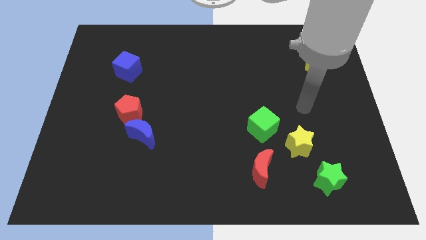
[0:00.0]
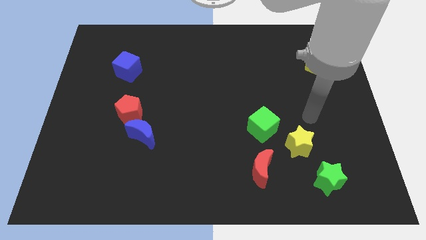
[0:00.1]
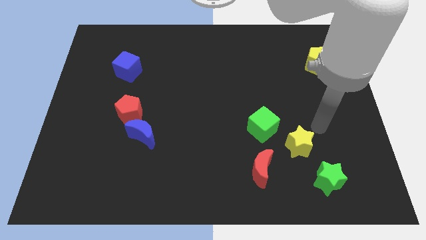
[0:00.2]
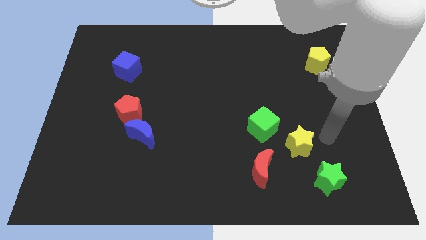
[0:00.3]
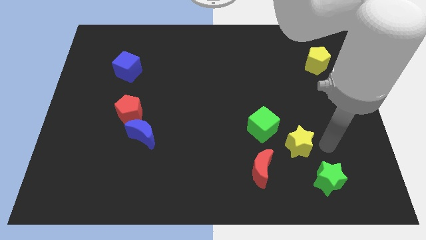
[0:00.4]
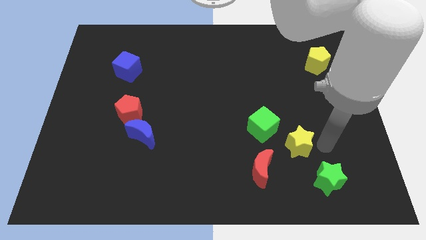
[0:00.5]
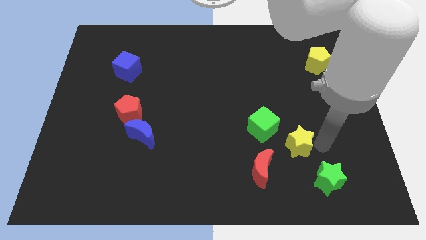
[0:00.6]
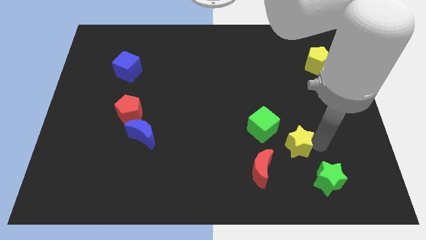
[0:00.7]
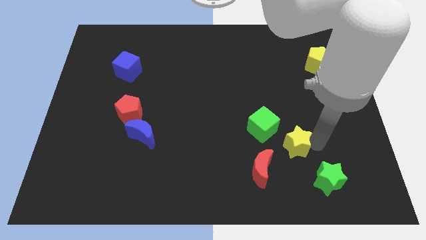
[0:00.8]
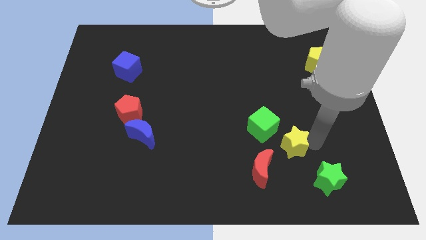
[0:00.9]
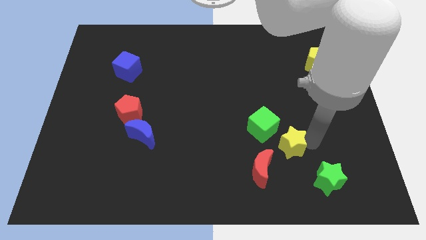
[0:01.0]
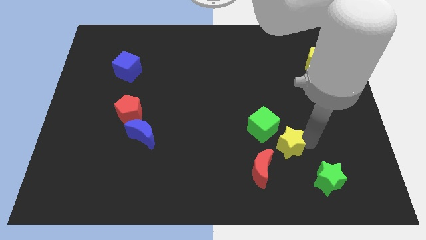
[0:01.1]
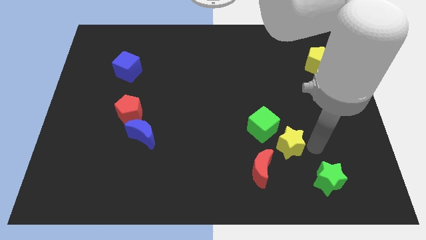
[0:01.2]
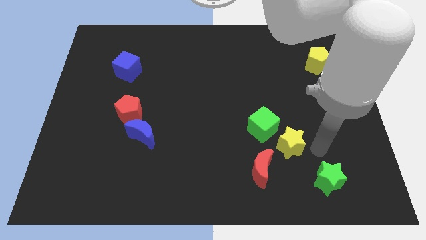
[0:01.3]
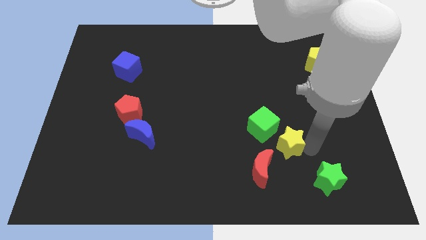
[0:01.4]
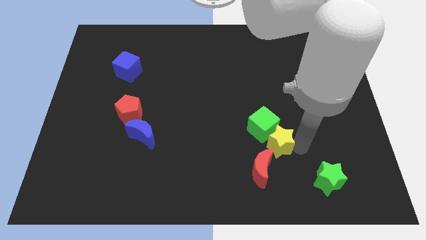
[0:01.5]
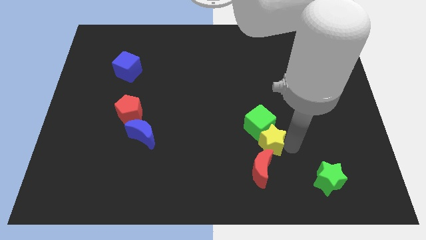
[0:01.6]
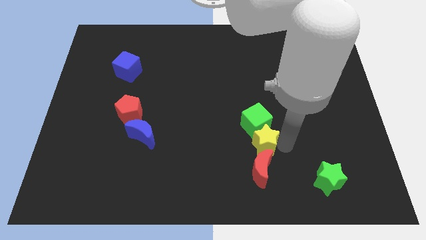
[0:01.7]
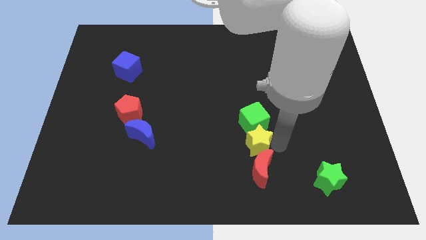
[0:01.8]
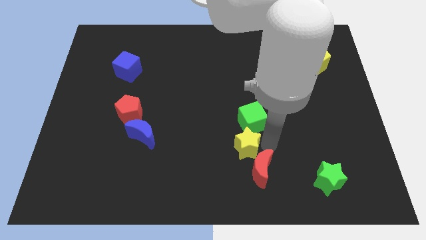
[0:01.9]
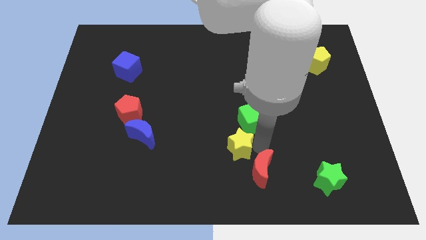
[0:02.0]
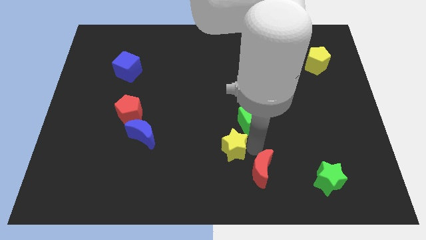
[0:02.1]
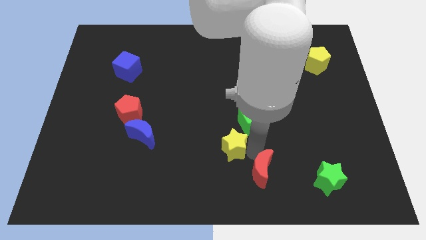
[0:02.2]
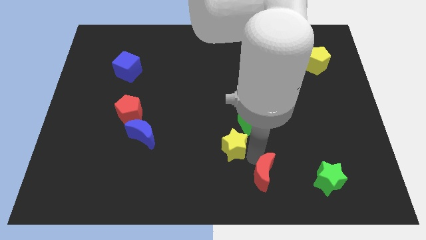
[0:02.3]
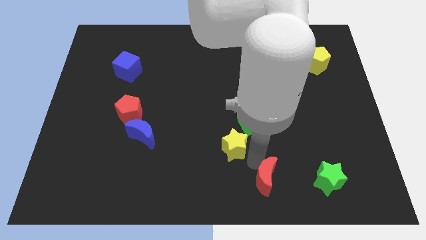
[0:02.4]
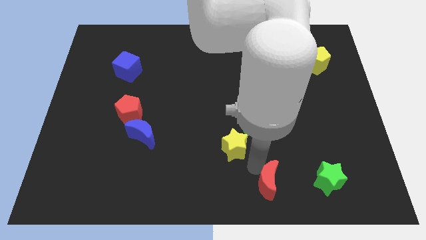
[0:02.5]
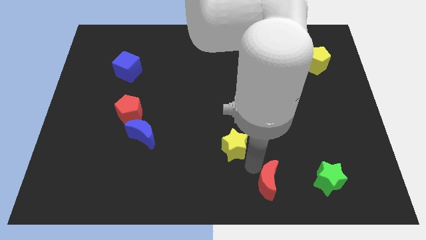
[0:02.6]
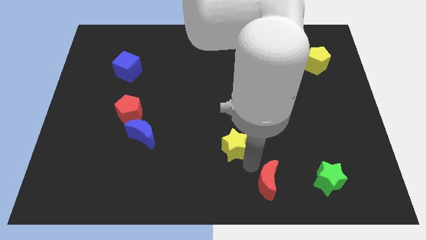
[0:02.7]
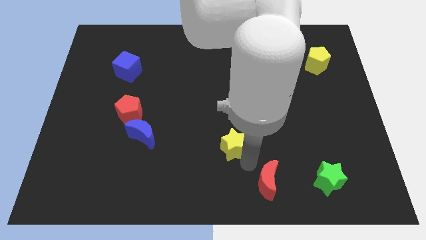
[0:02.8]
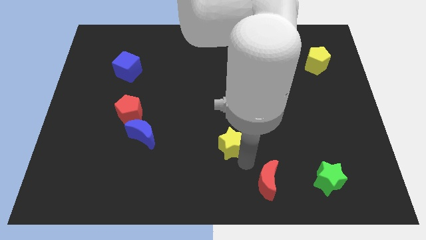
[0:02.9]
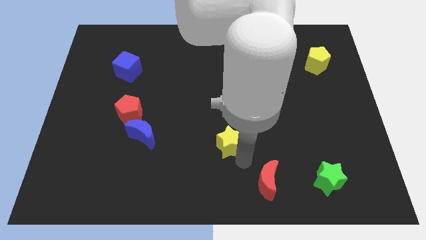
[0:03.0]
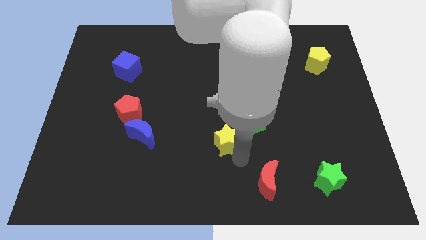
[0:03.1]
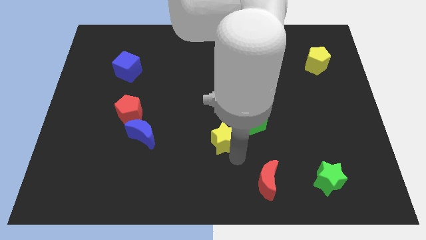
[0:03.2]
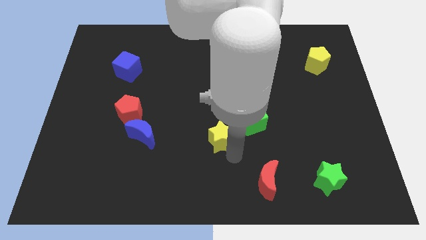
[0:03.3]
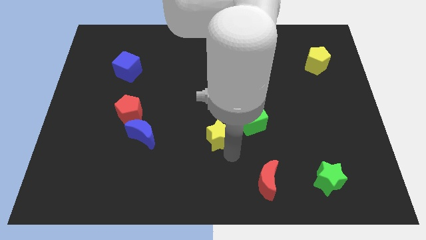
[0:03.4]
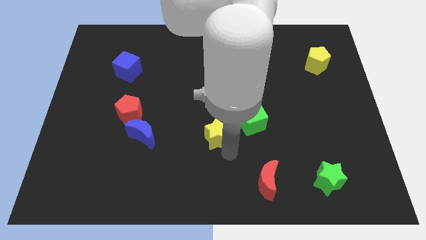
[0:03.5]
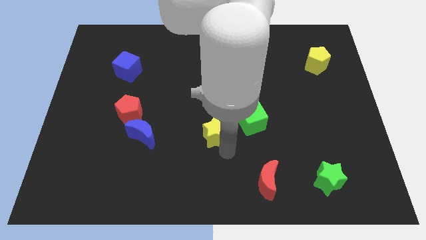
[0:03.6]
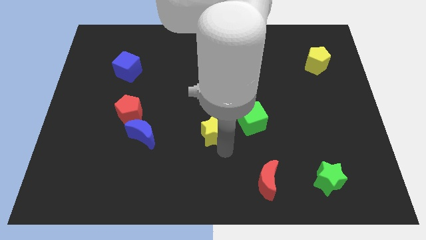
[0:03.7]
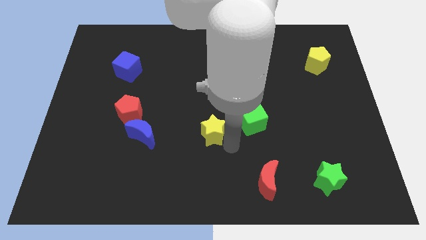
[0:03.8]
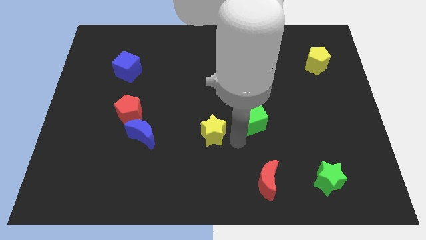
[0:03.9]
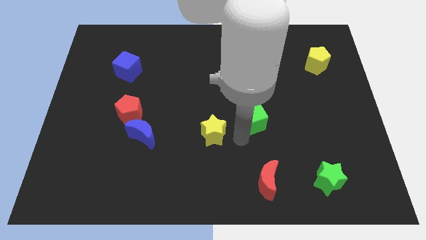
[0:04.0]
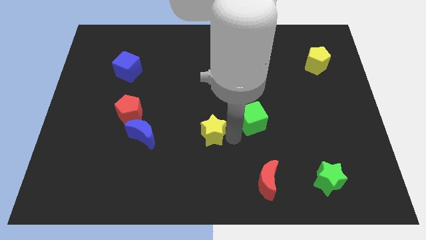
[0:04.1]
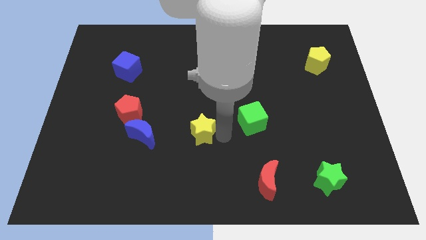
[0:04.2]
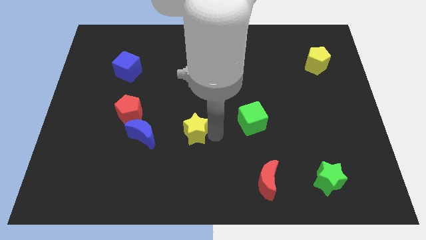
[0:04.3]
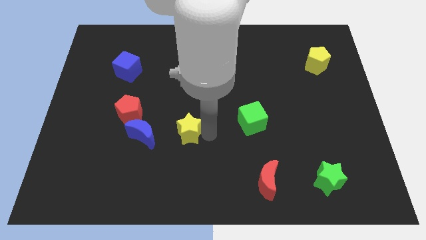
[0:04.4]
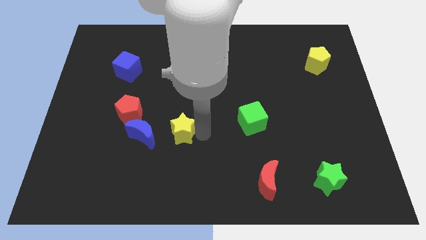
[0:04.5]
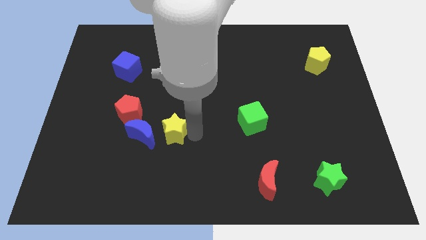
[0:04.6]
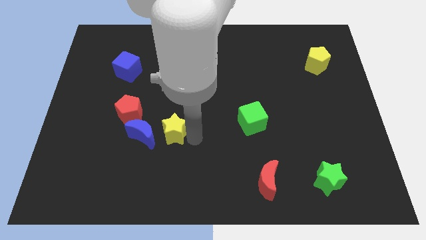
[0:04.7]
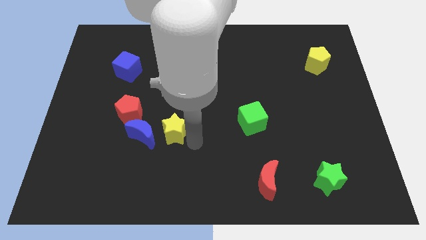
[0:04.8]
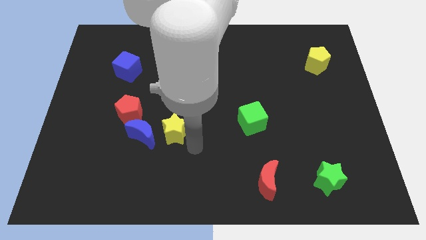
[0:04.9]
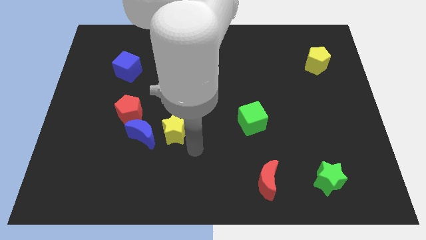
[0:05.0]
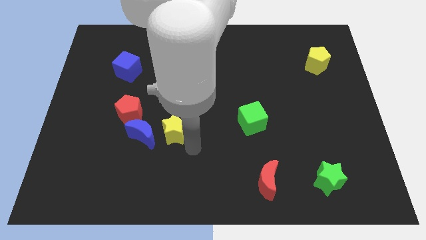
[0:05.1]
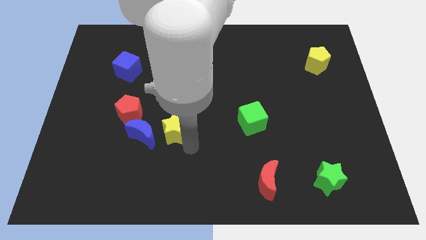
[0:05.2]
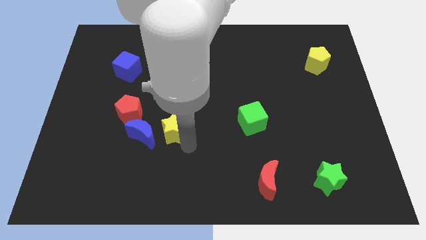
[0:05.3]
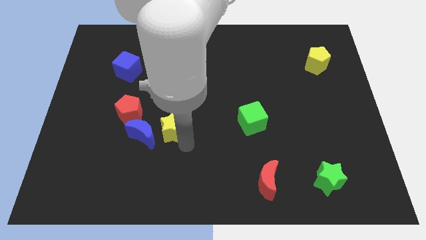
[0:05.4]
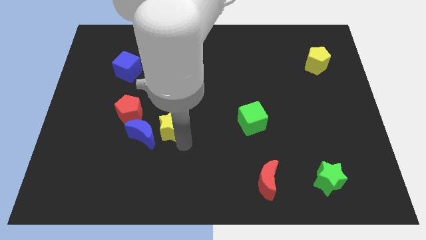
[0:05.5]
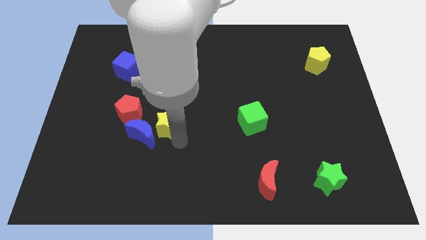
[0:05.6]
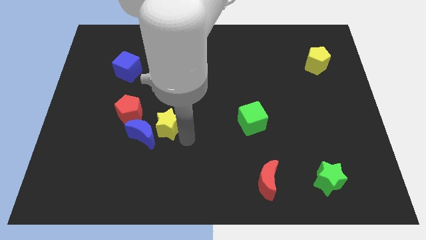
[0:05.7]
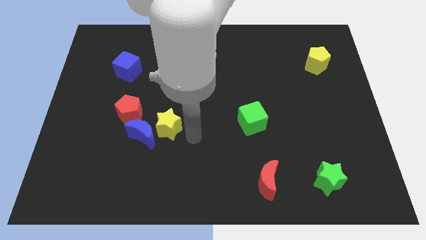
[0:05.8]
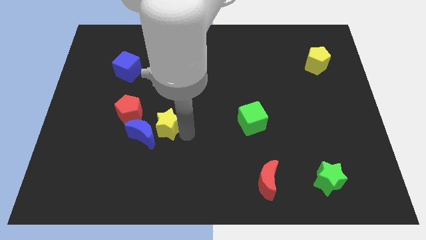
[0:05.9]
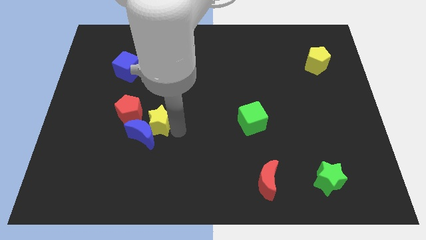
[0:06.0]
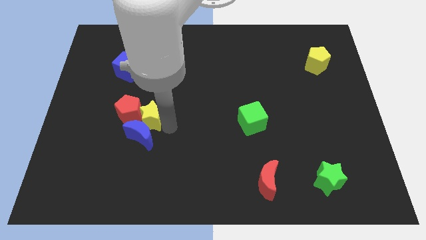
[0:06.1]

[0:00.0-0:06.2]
slide the yellow star close to the red pentagon
